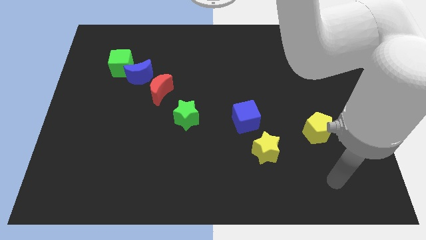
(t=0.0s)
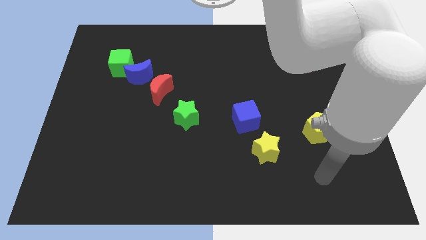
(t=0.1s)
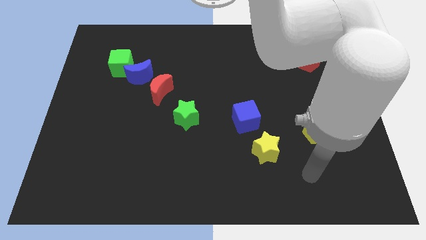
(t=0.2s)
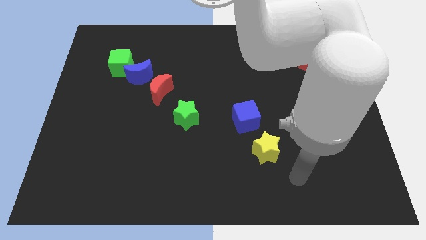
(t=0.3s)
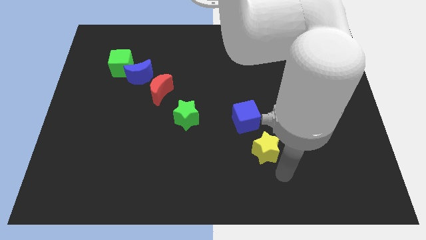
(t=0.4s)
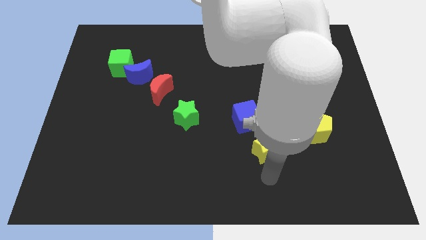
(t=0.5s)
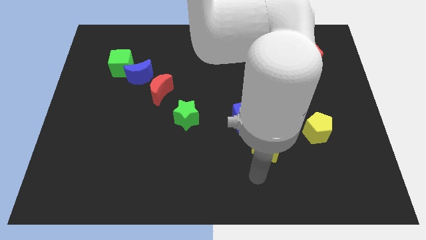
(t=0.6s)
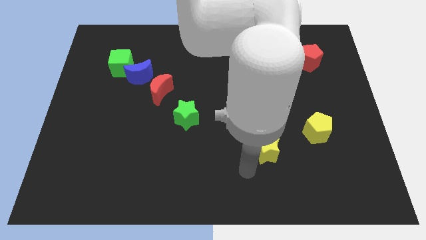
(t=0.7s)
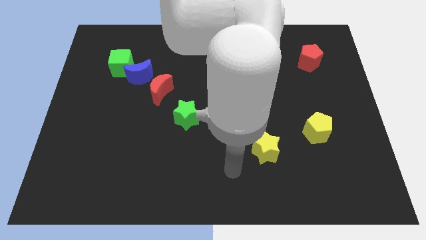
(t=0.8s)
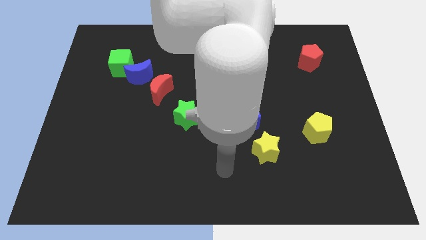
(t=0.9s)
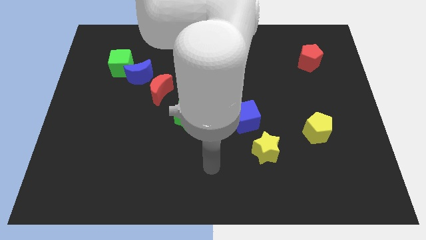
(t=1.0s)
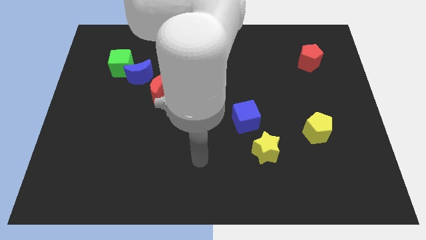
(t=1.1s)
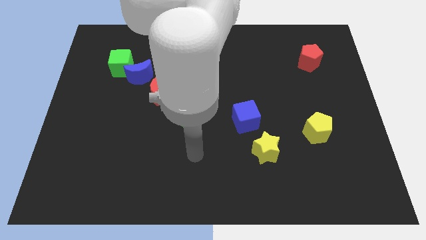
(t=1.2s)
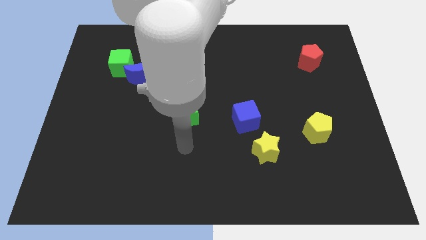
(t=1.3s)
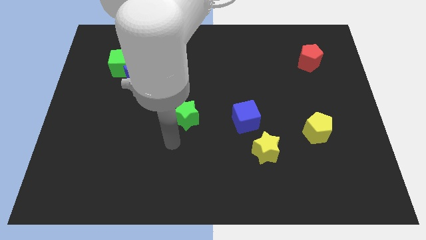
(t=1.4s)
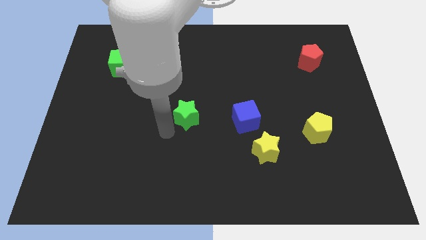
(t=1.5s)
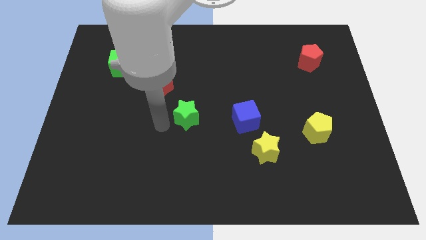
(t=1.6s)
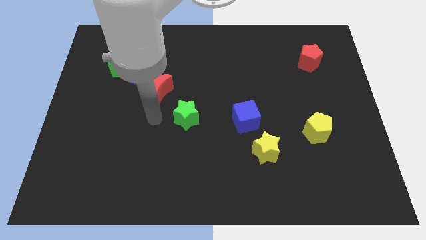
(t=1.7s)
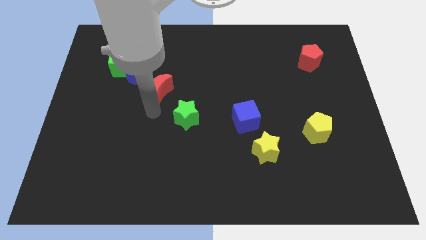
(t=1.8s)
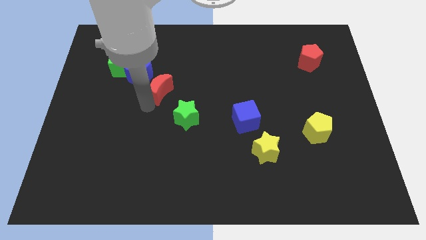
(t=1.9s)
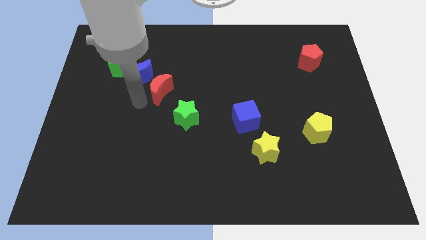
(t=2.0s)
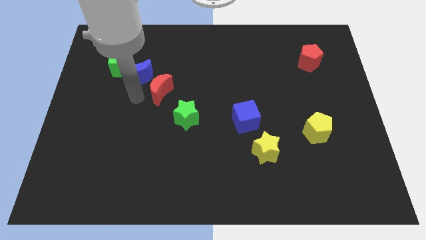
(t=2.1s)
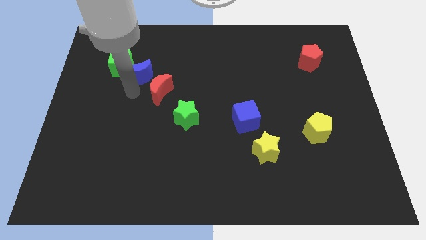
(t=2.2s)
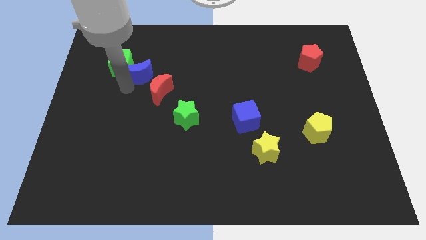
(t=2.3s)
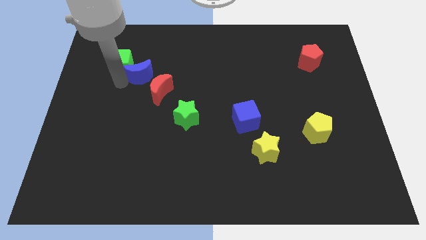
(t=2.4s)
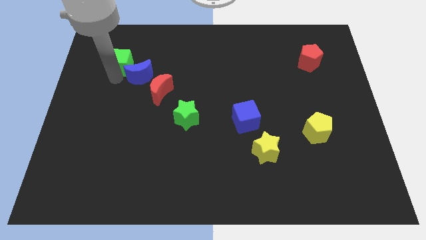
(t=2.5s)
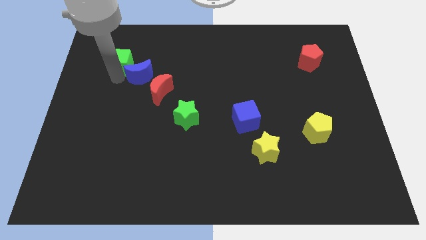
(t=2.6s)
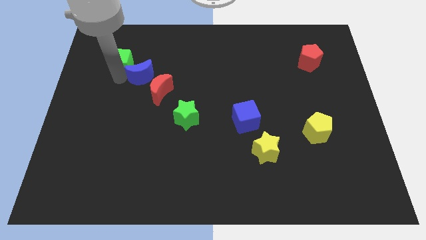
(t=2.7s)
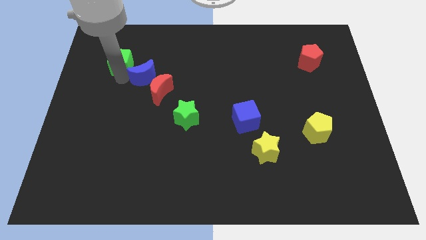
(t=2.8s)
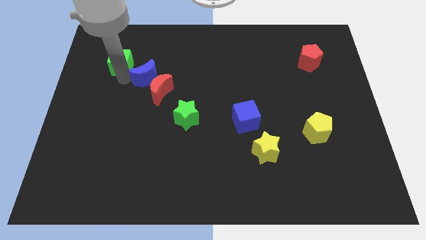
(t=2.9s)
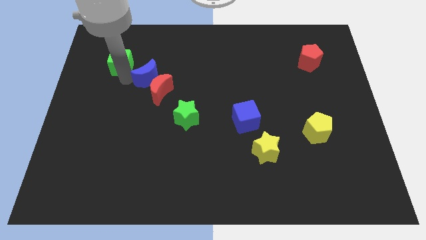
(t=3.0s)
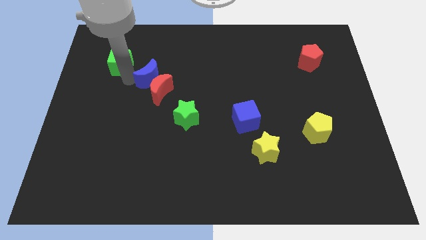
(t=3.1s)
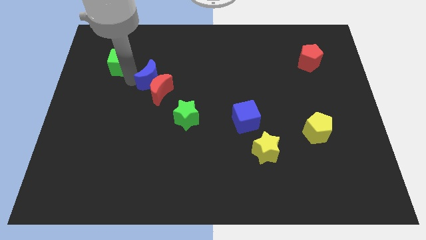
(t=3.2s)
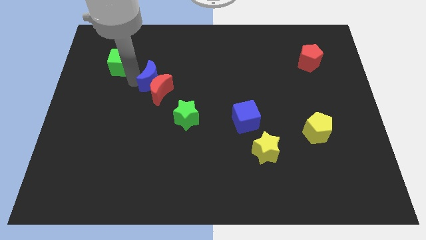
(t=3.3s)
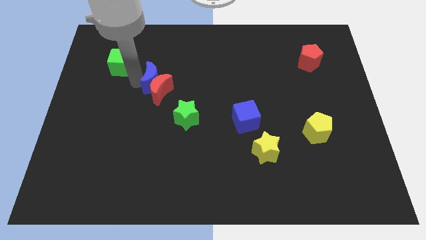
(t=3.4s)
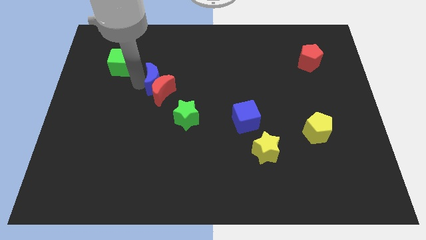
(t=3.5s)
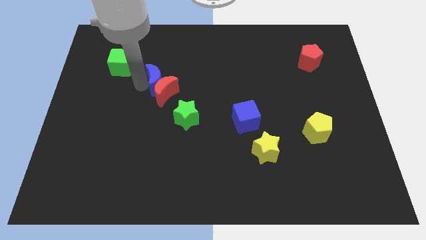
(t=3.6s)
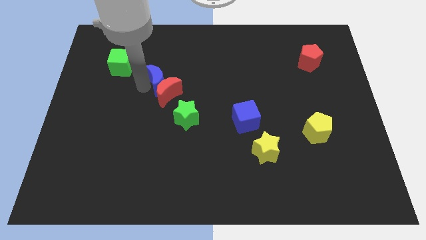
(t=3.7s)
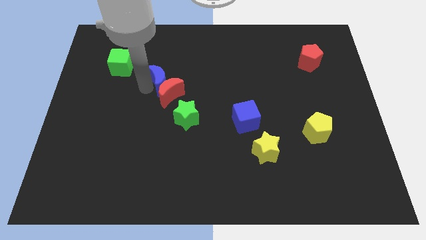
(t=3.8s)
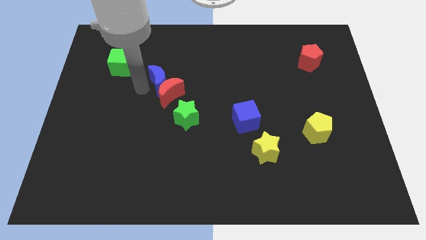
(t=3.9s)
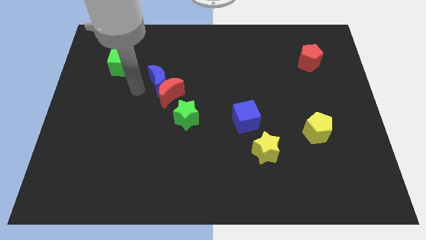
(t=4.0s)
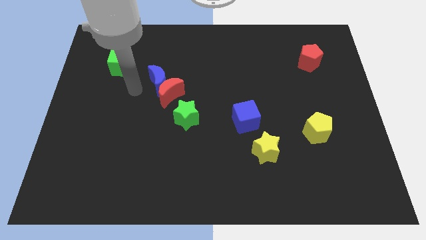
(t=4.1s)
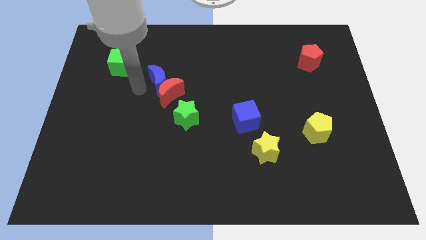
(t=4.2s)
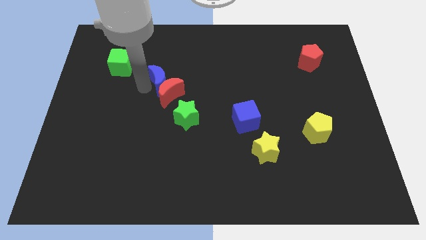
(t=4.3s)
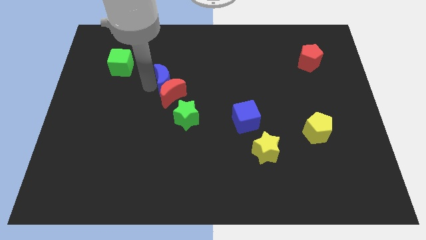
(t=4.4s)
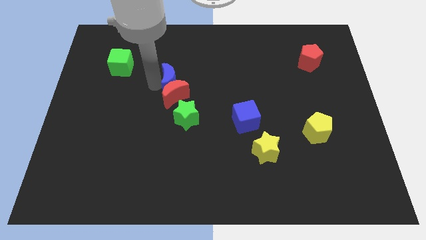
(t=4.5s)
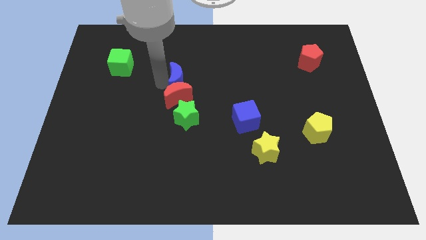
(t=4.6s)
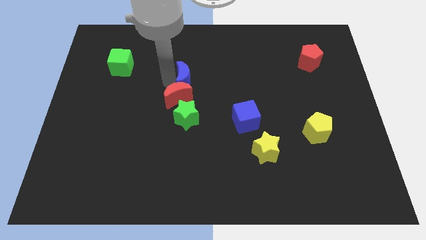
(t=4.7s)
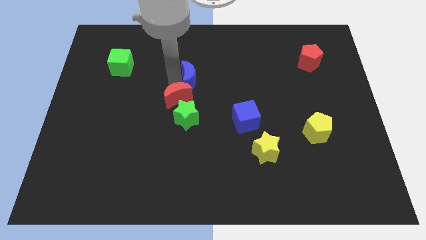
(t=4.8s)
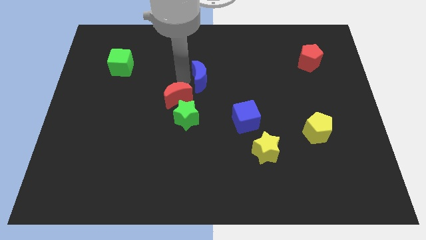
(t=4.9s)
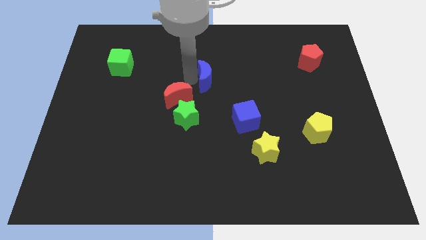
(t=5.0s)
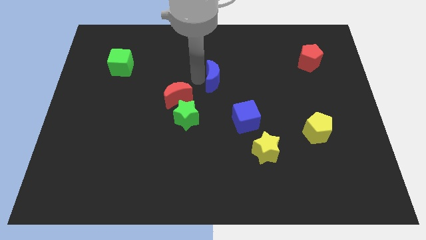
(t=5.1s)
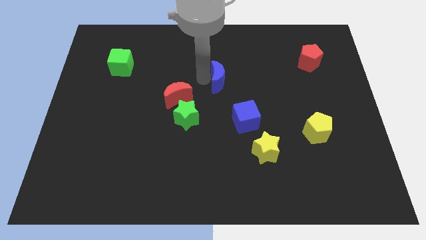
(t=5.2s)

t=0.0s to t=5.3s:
slide the blue moon to the right

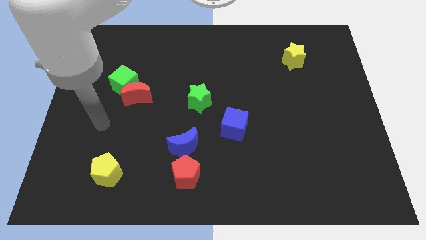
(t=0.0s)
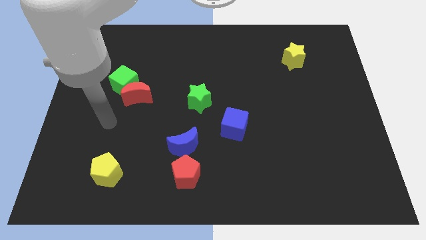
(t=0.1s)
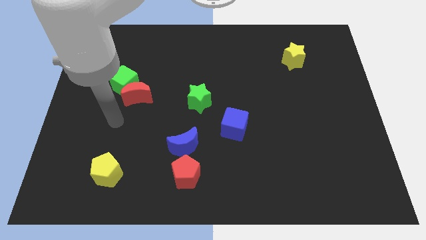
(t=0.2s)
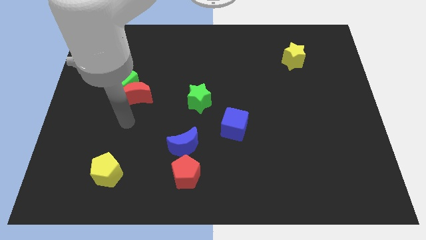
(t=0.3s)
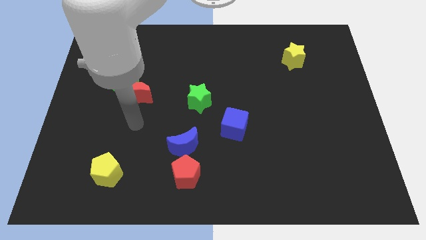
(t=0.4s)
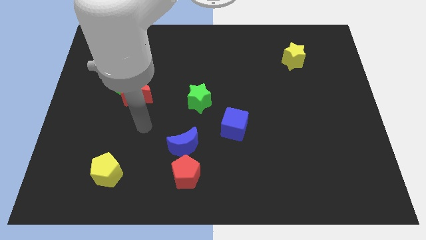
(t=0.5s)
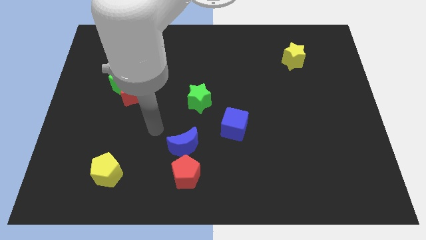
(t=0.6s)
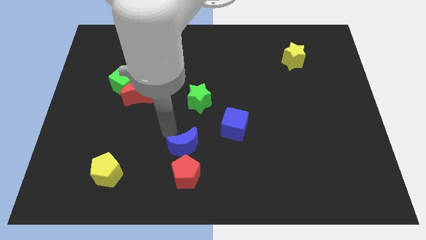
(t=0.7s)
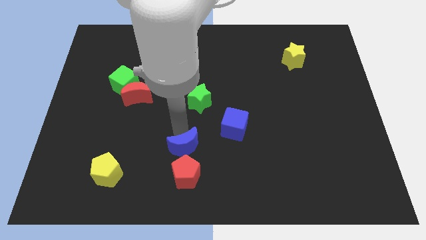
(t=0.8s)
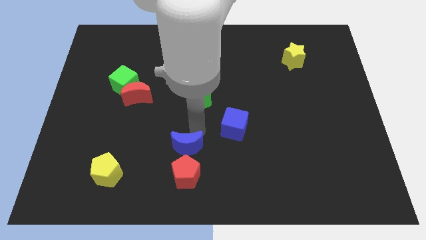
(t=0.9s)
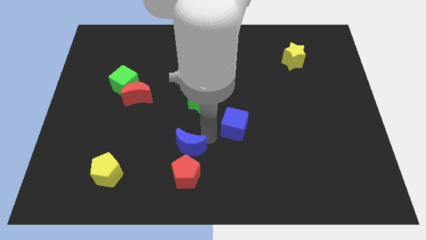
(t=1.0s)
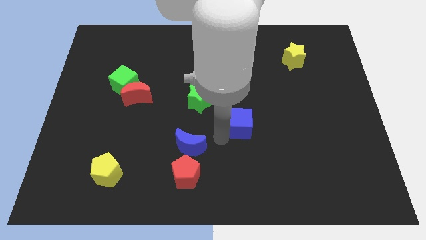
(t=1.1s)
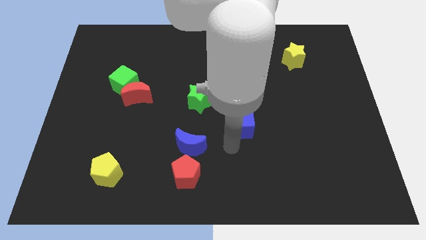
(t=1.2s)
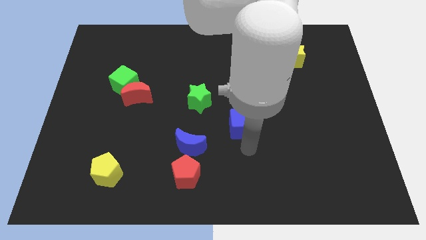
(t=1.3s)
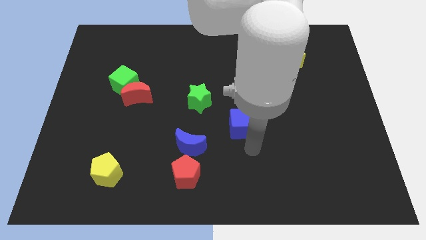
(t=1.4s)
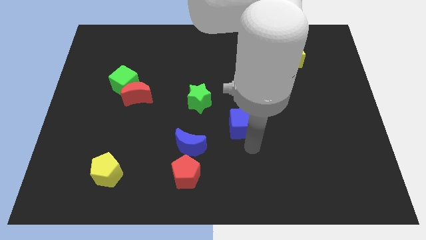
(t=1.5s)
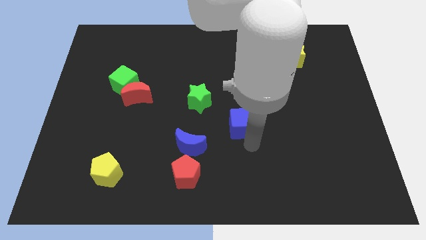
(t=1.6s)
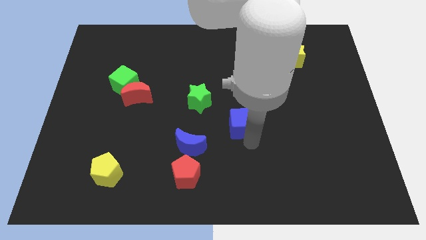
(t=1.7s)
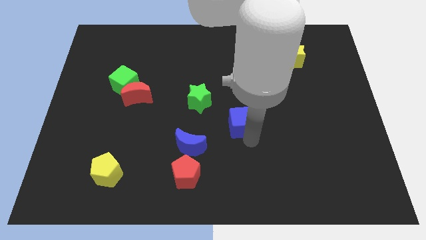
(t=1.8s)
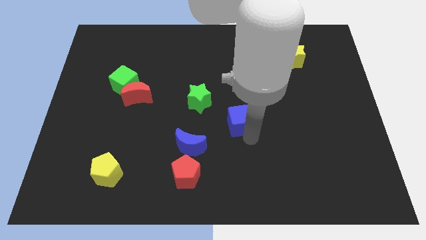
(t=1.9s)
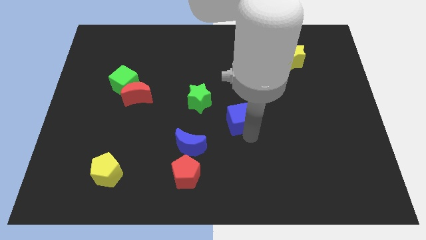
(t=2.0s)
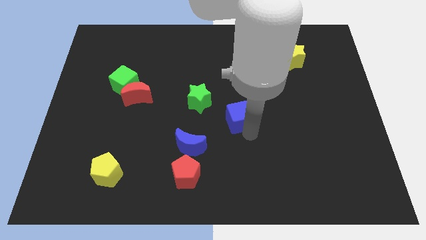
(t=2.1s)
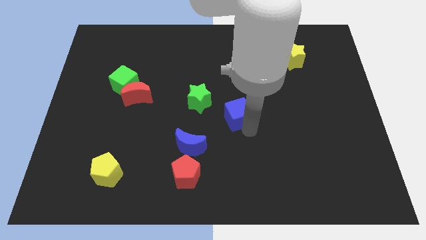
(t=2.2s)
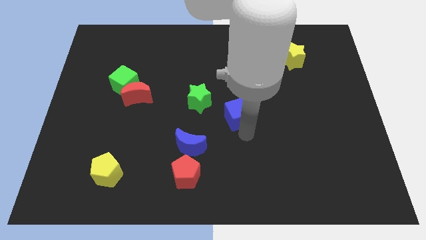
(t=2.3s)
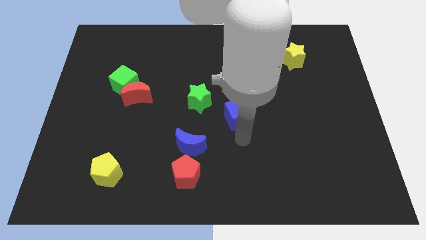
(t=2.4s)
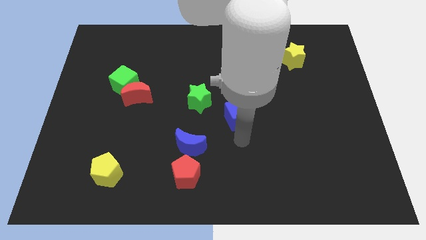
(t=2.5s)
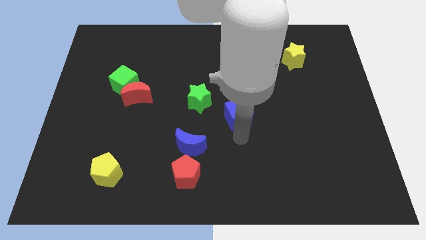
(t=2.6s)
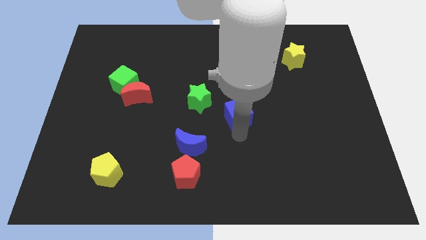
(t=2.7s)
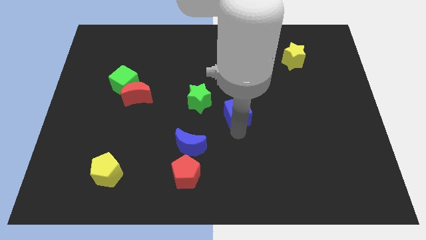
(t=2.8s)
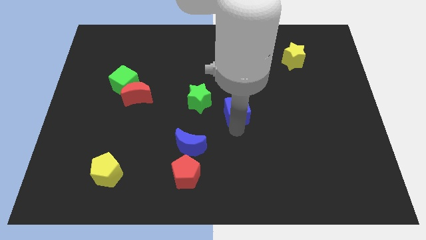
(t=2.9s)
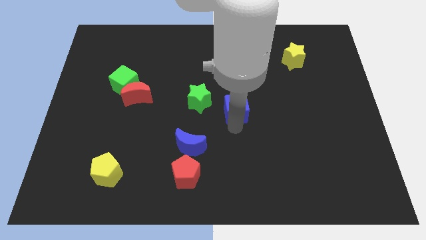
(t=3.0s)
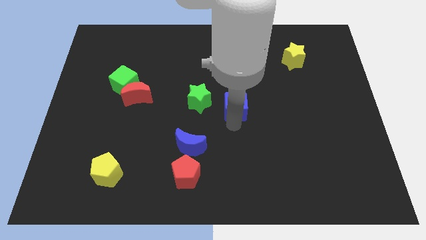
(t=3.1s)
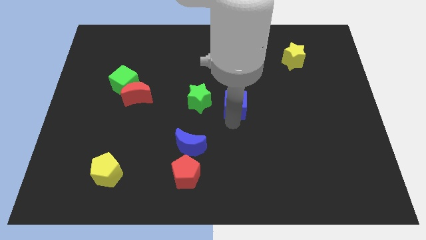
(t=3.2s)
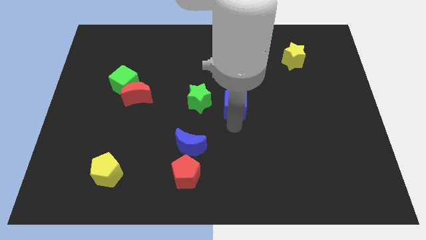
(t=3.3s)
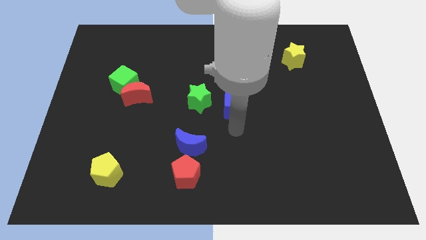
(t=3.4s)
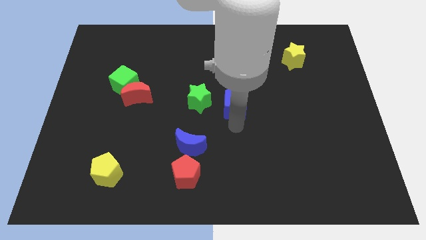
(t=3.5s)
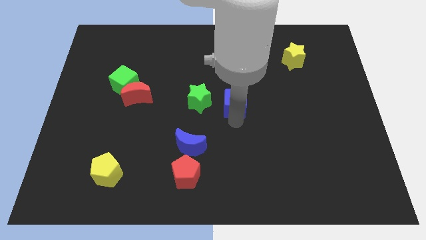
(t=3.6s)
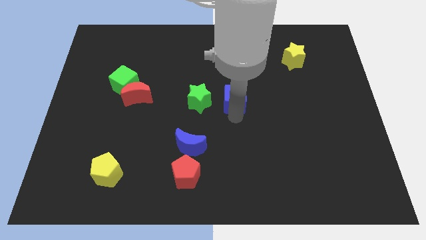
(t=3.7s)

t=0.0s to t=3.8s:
slightly move the blue cube upwards
